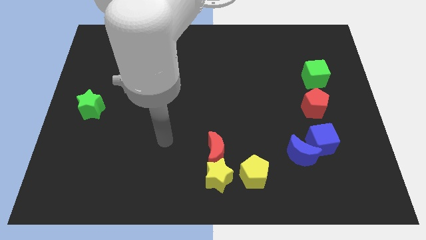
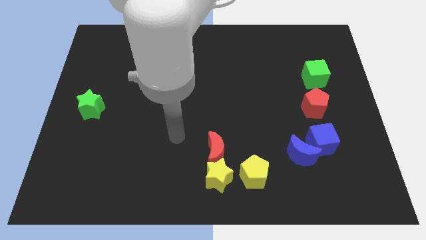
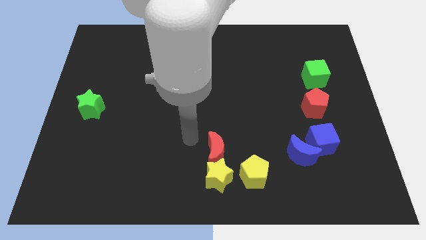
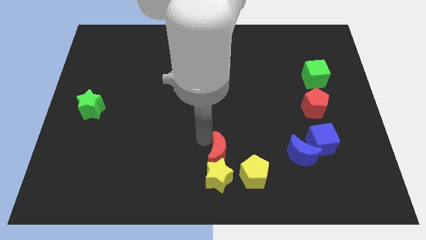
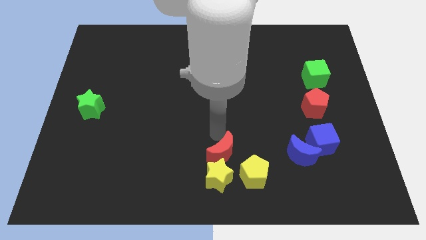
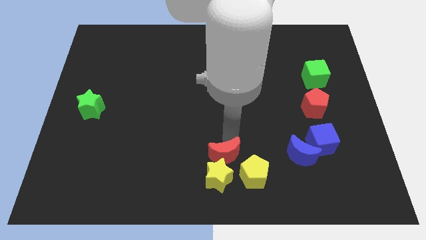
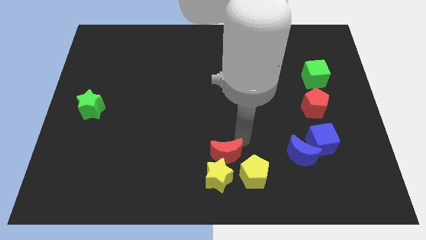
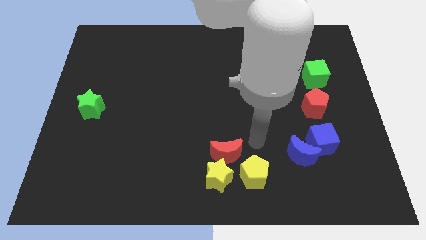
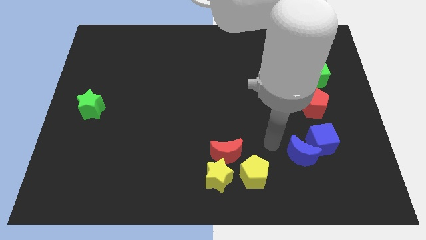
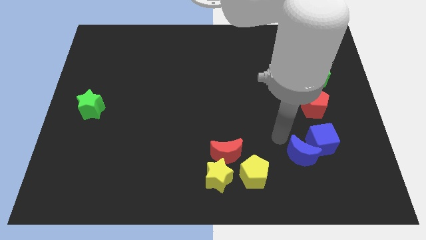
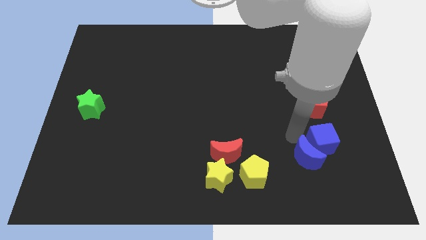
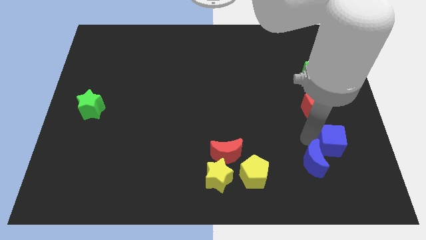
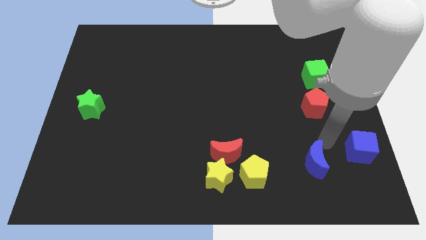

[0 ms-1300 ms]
separate the blue moon from the blue cube

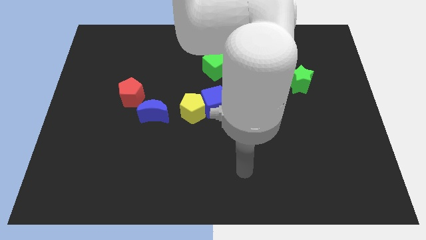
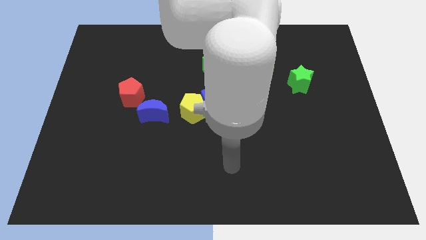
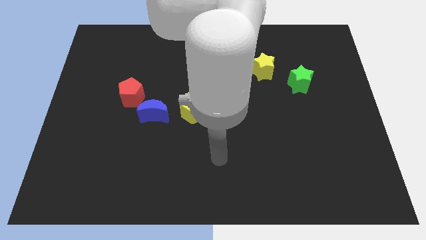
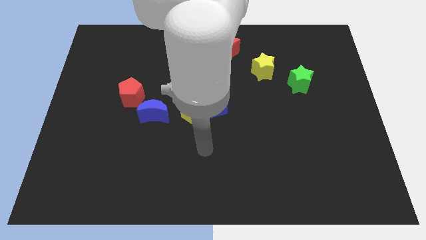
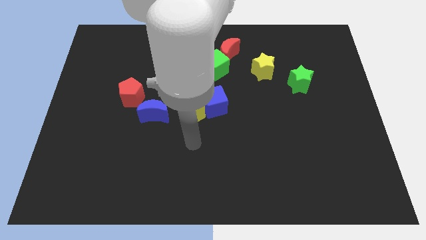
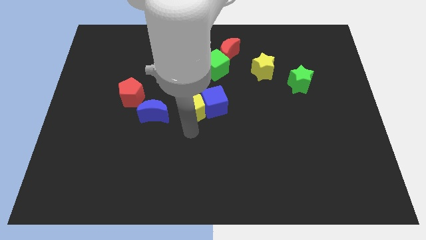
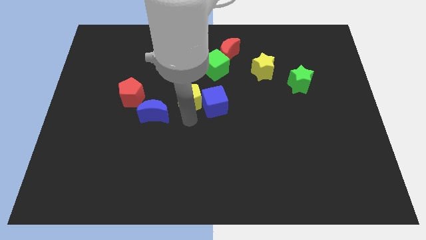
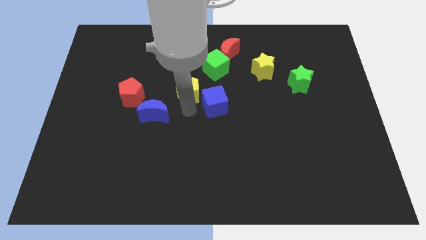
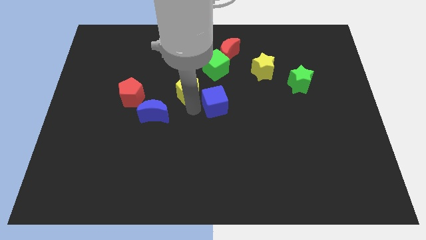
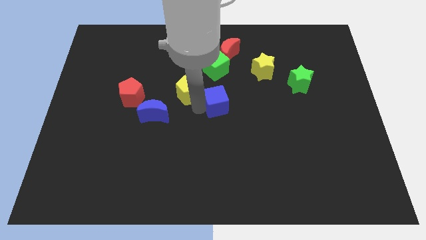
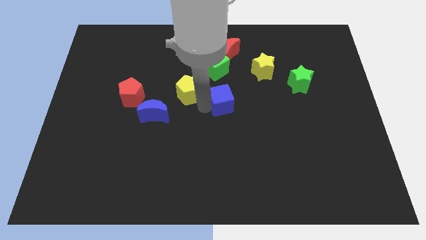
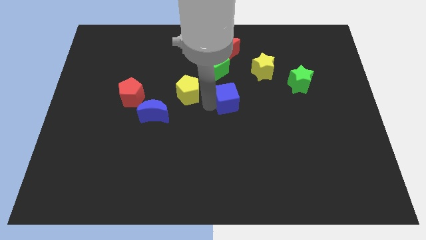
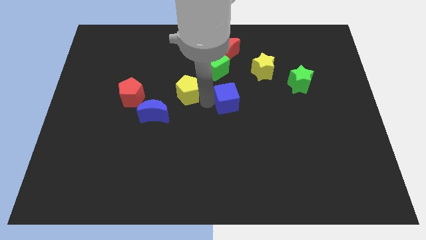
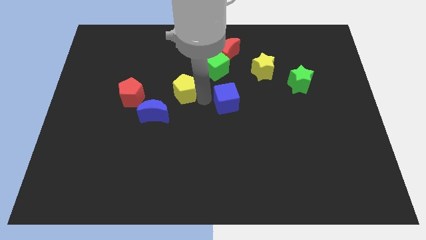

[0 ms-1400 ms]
move the blue cube away from the yellow pentagon

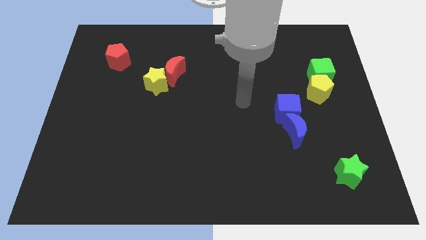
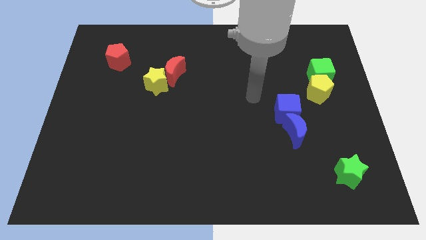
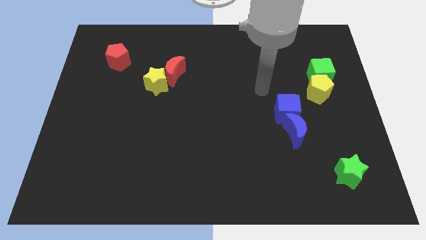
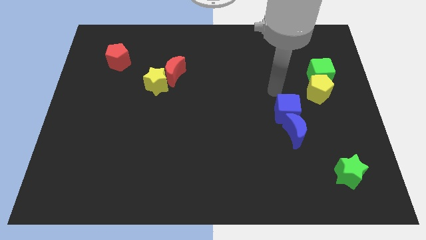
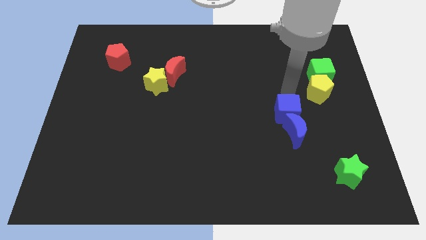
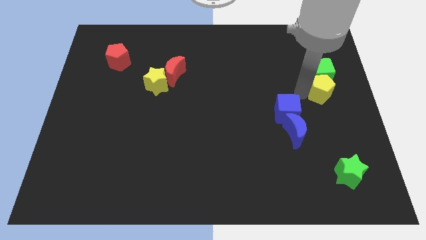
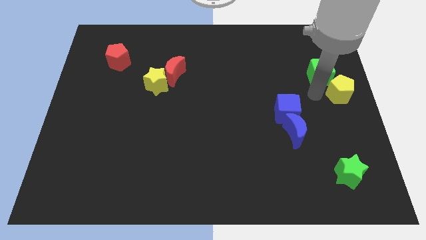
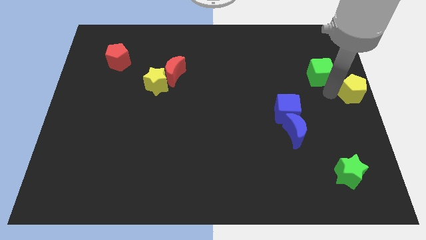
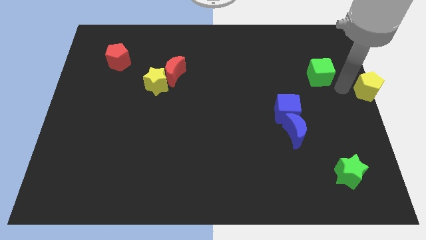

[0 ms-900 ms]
pull the green cube apart from the yellow pentagon

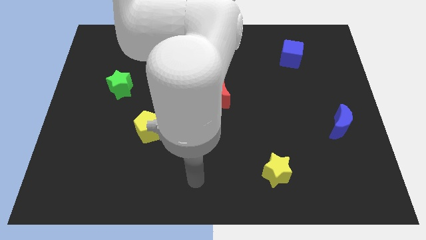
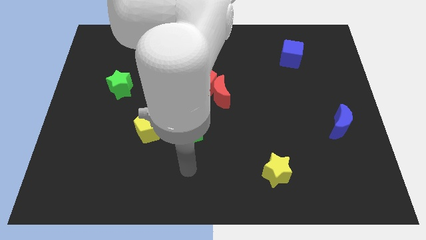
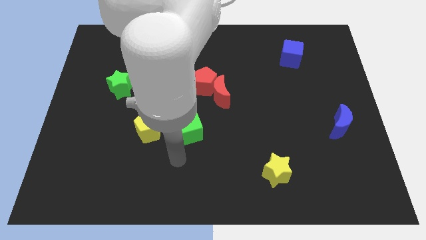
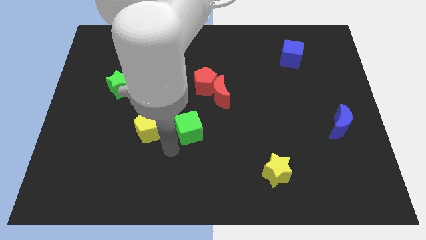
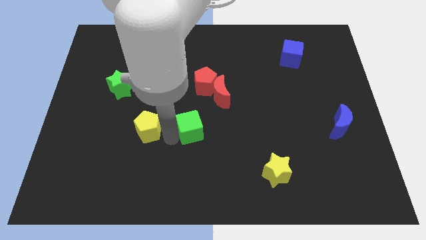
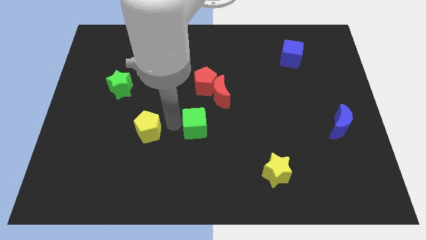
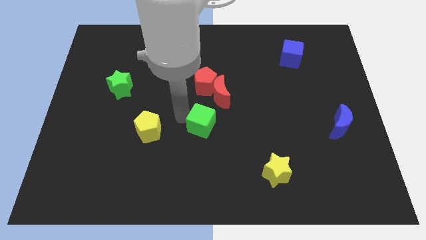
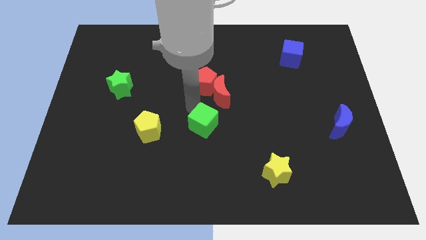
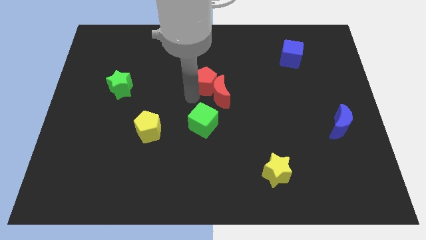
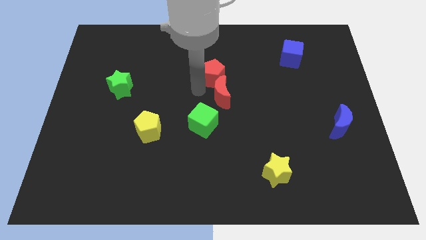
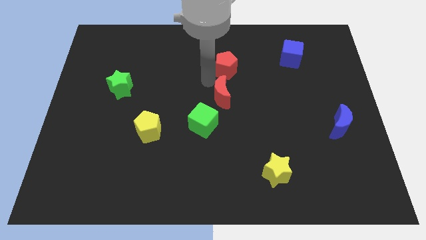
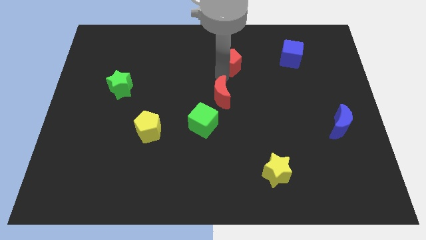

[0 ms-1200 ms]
pull the red moon apart from the red pentagon

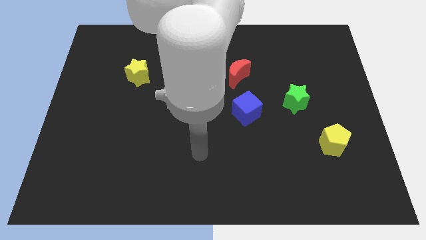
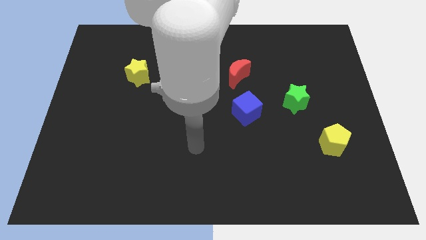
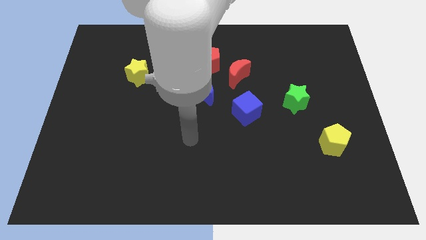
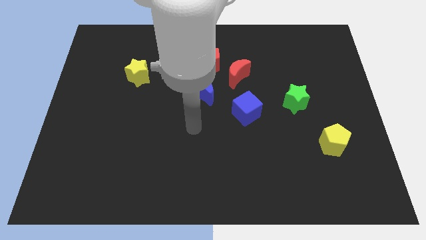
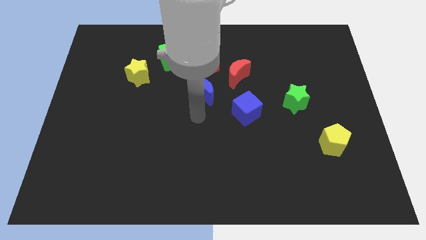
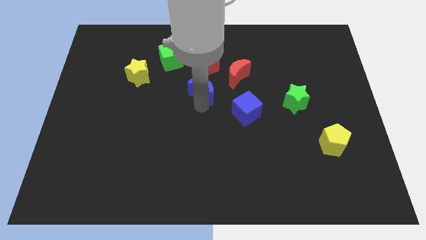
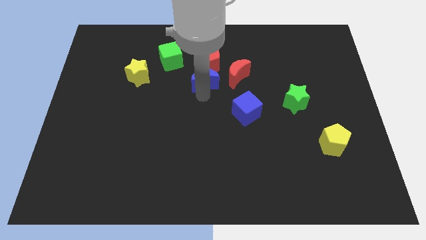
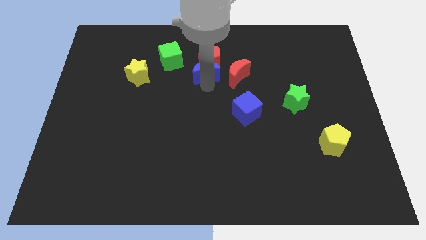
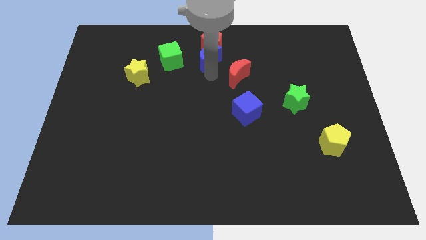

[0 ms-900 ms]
separate the red moon from the red pentagon and blue moon

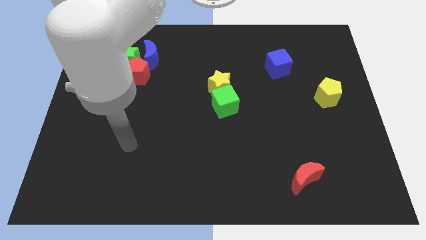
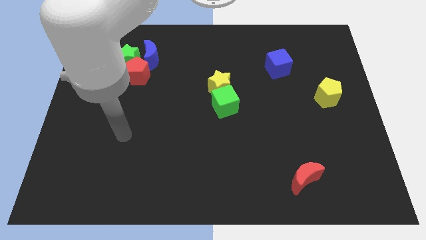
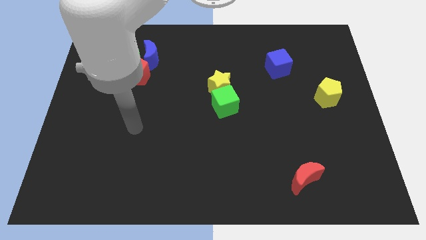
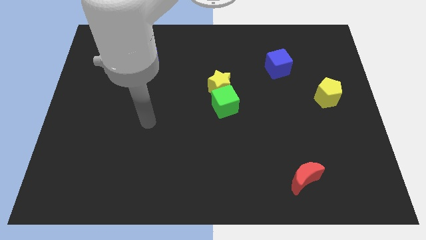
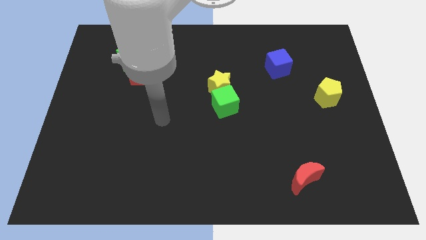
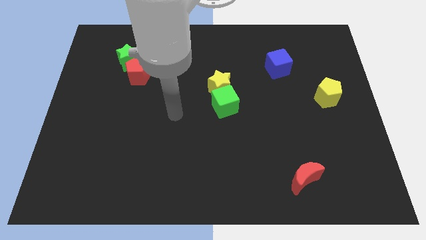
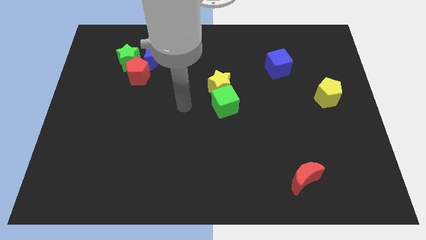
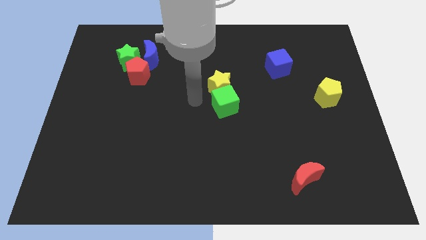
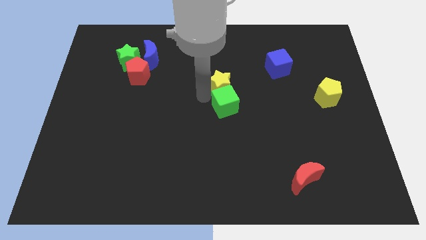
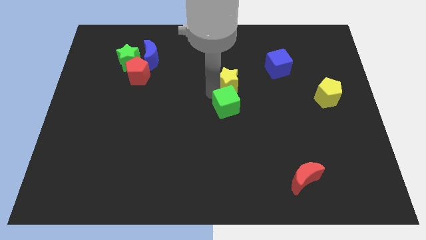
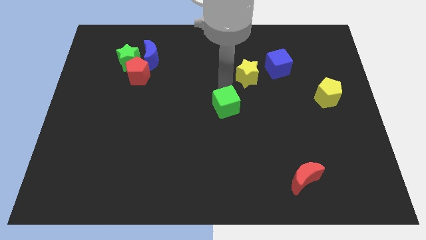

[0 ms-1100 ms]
separate the green cube from the yellow star

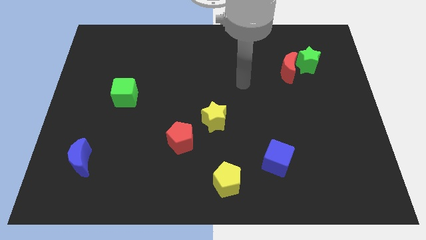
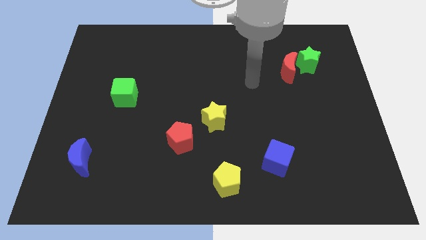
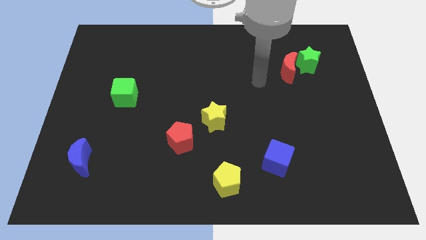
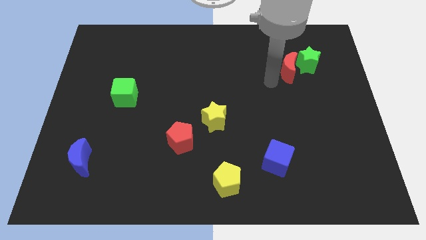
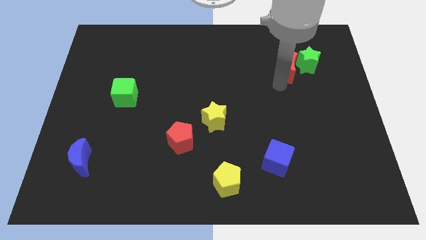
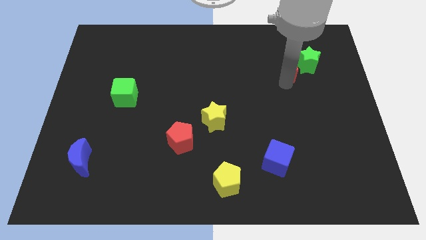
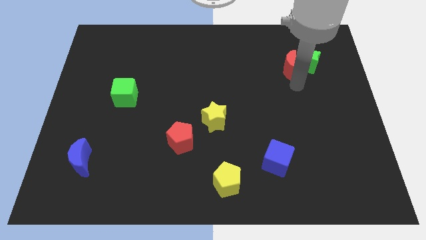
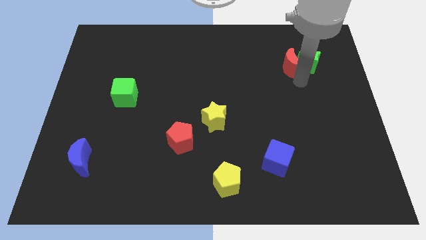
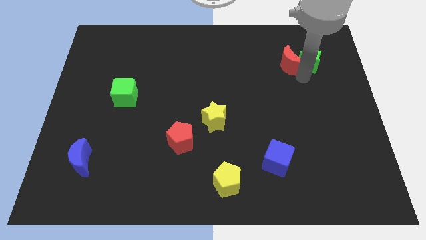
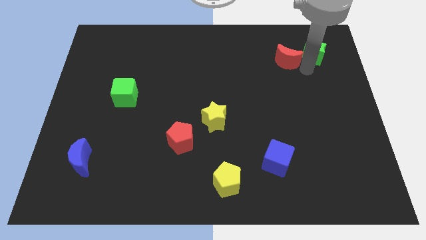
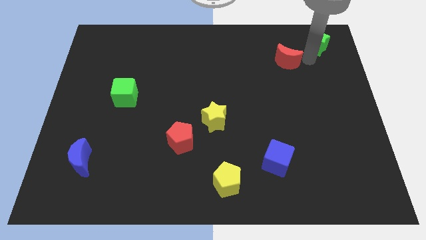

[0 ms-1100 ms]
move the red moon away from the green star

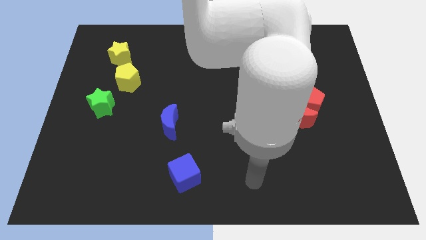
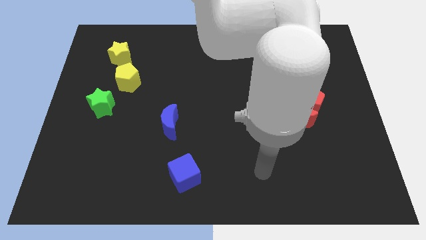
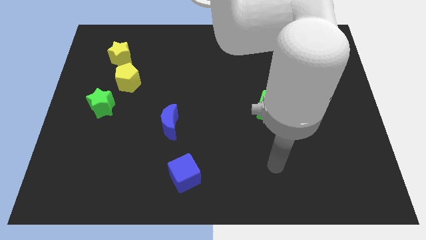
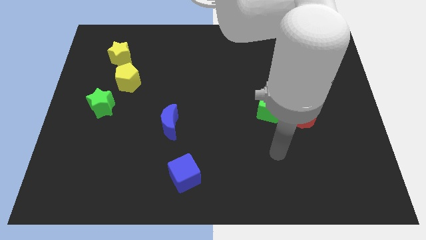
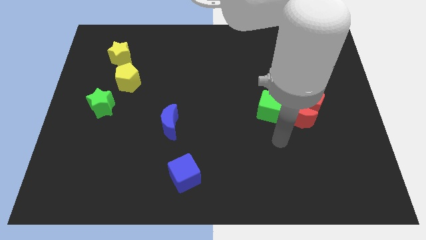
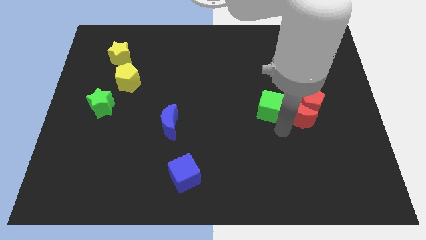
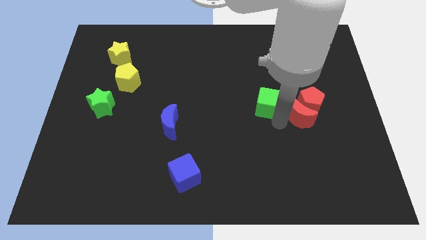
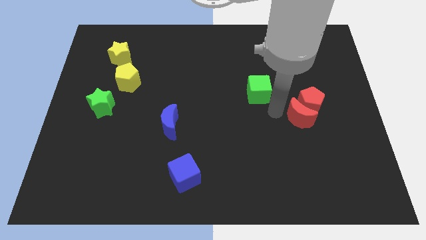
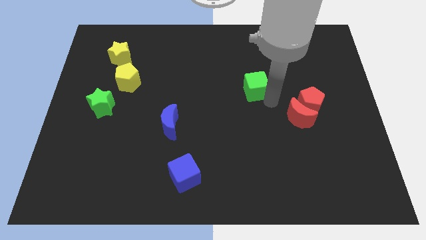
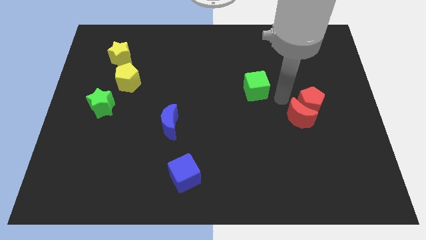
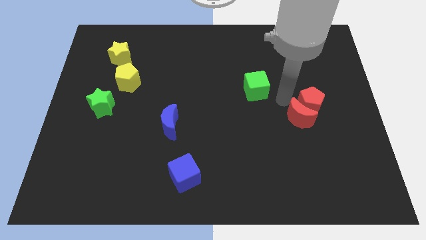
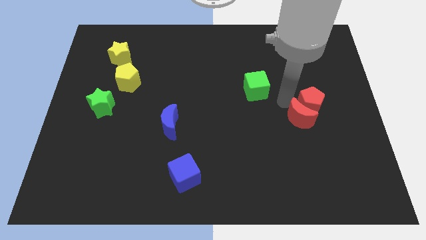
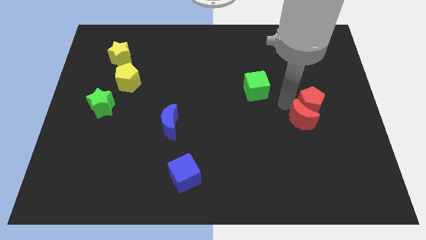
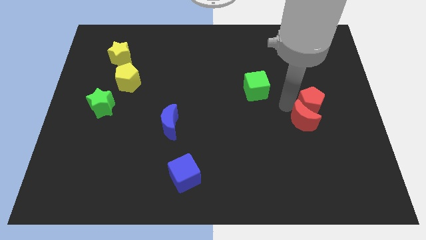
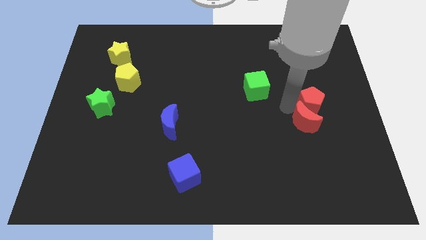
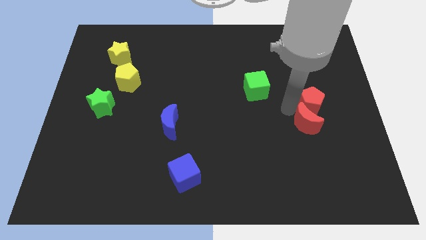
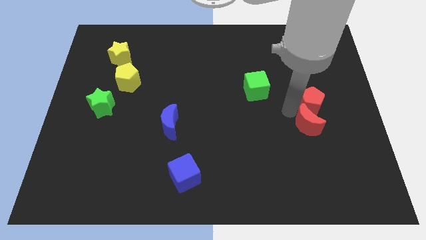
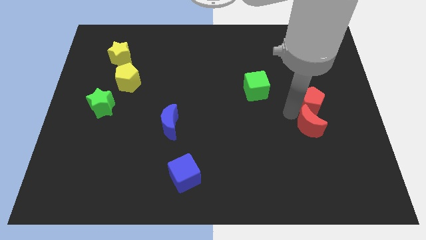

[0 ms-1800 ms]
separate the red moon from the red pentagon and green cube
